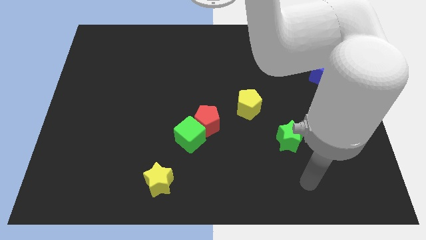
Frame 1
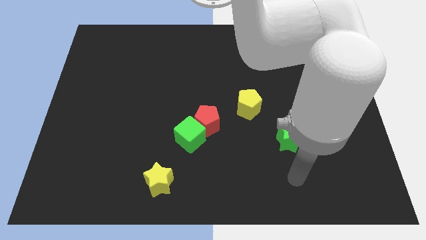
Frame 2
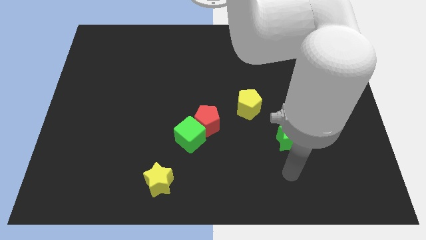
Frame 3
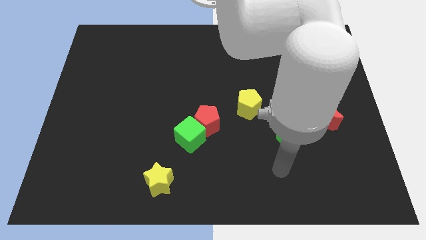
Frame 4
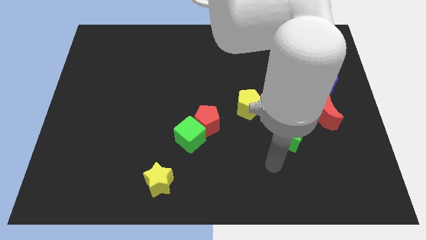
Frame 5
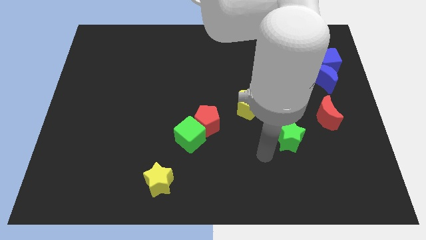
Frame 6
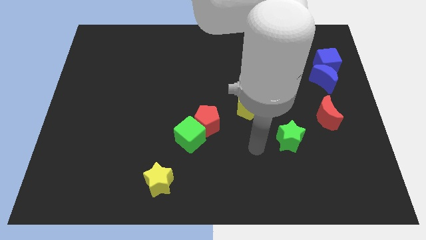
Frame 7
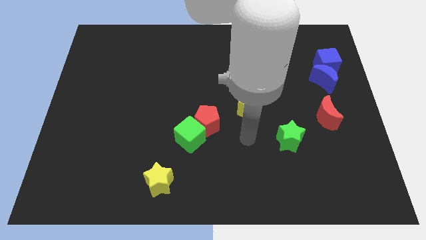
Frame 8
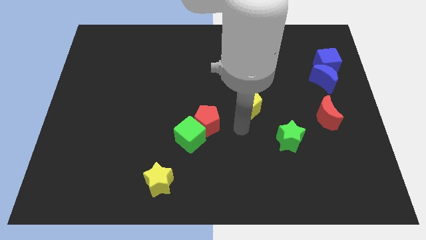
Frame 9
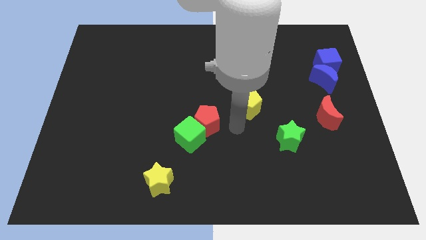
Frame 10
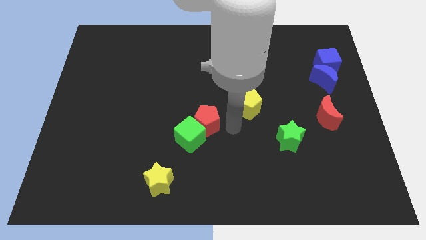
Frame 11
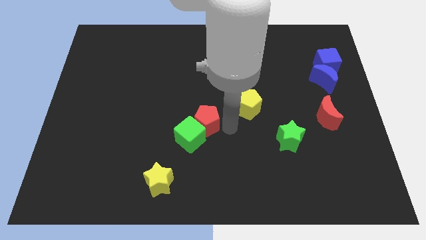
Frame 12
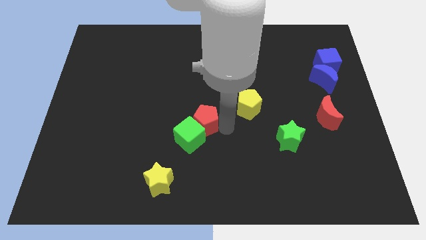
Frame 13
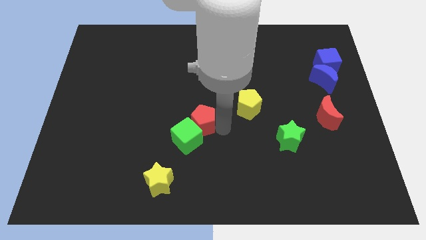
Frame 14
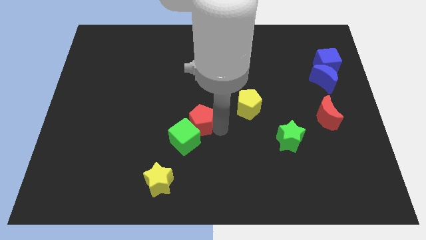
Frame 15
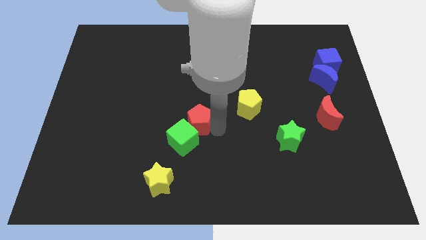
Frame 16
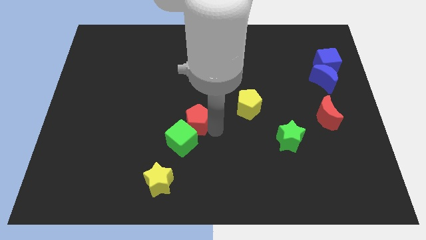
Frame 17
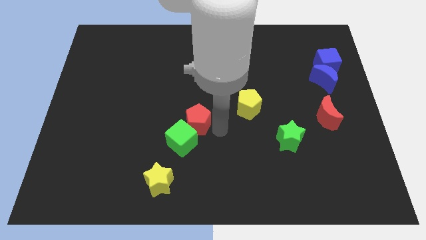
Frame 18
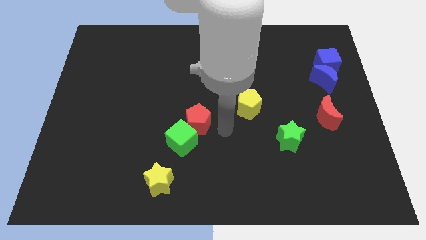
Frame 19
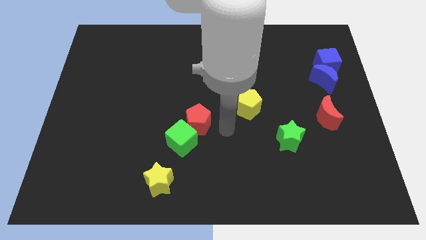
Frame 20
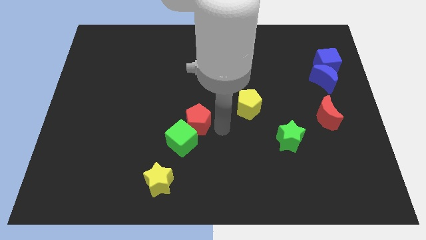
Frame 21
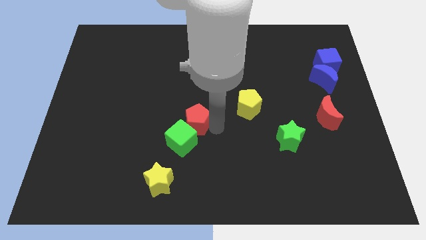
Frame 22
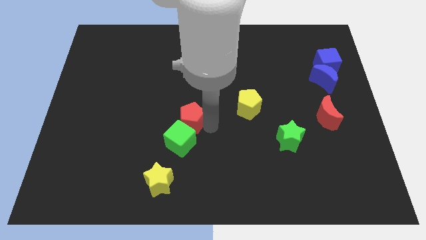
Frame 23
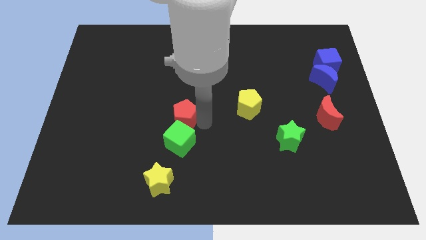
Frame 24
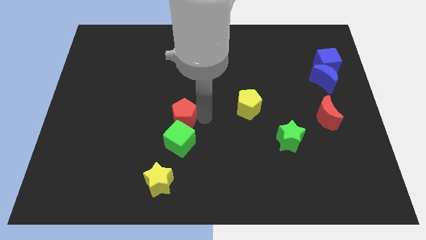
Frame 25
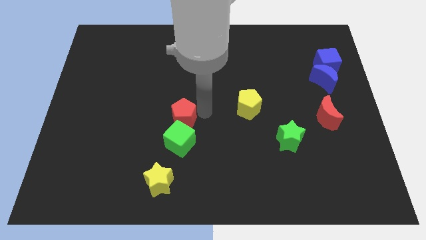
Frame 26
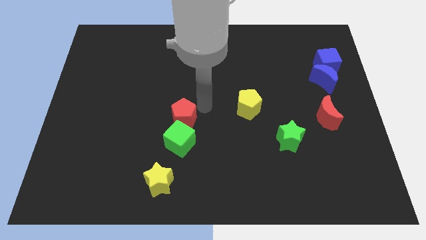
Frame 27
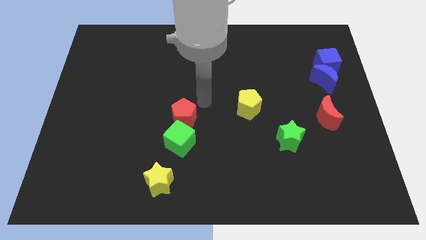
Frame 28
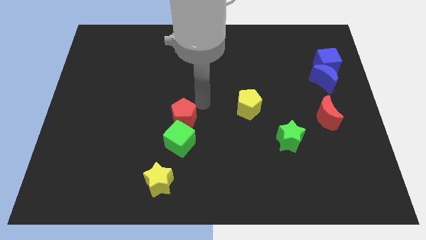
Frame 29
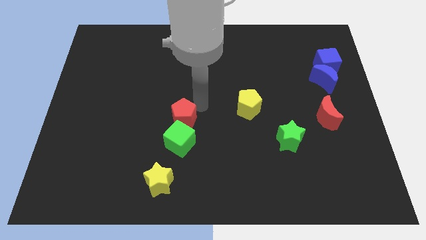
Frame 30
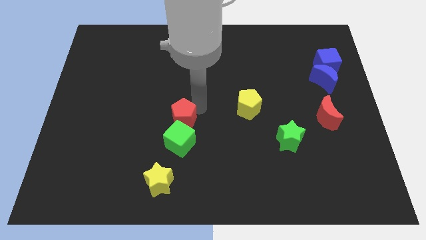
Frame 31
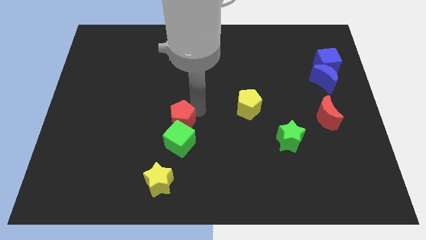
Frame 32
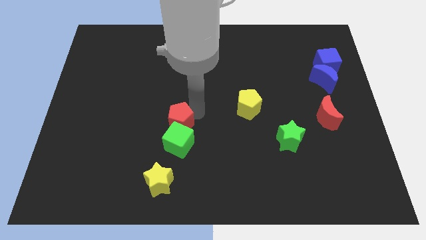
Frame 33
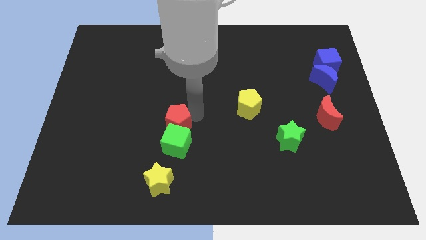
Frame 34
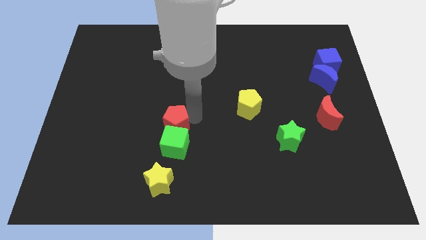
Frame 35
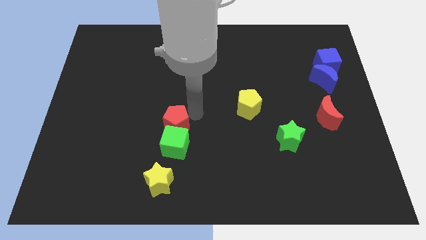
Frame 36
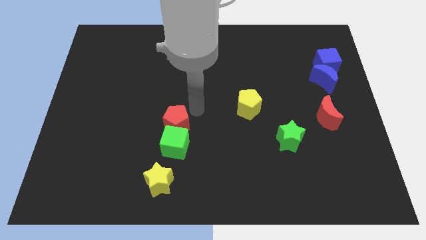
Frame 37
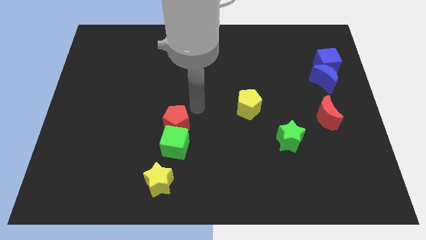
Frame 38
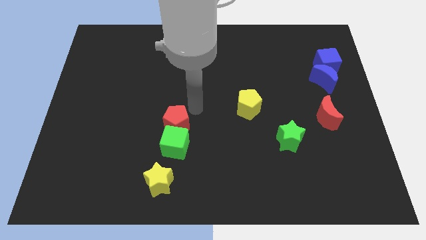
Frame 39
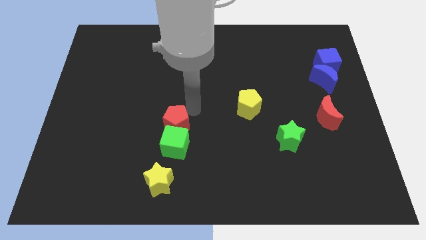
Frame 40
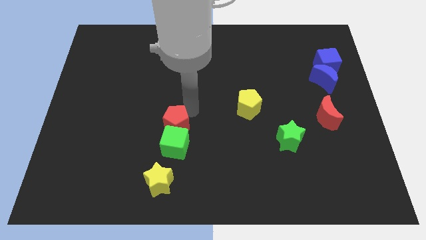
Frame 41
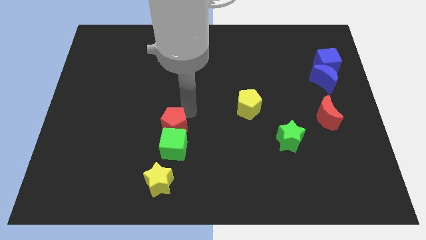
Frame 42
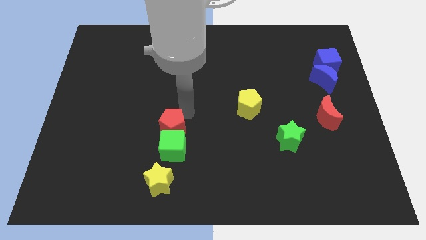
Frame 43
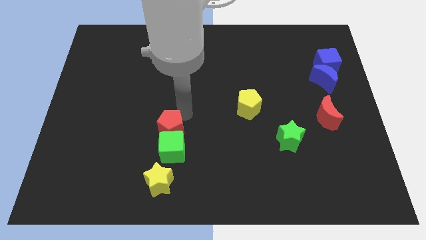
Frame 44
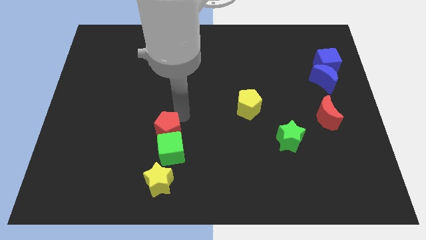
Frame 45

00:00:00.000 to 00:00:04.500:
slightly slide the red pentagon downwards and left diagonally

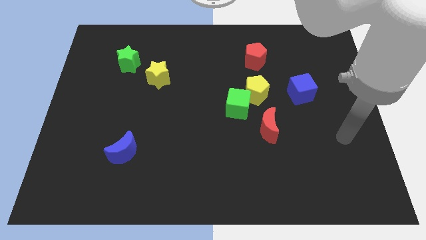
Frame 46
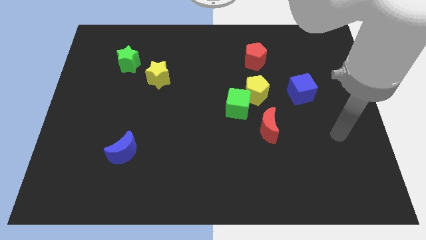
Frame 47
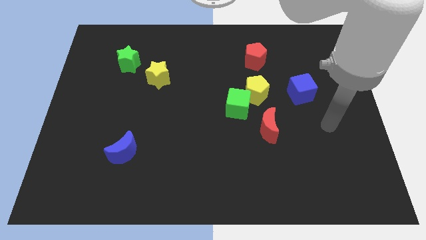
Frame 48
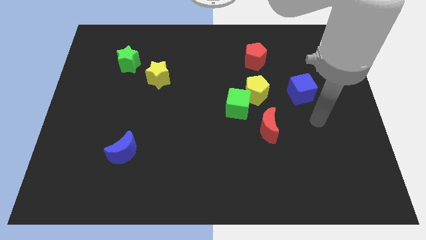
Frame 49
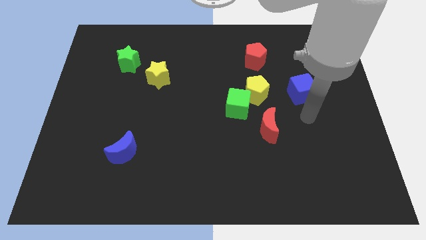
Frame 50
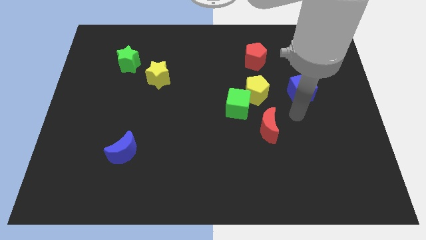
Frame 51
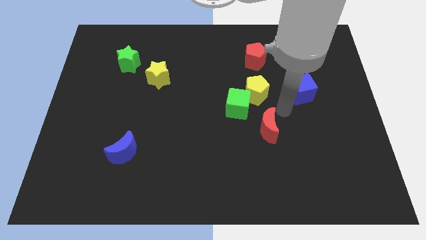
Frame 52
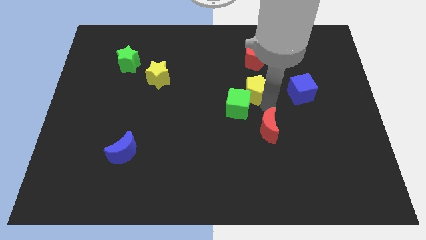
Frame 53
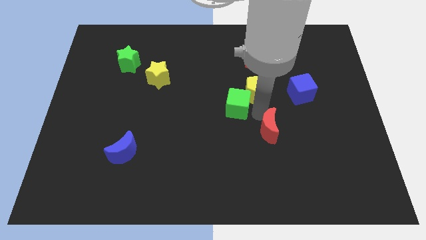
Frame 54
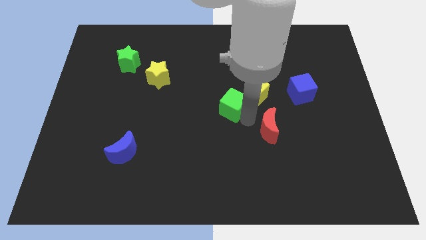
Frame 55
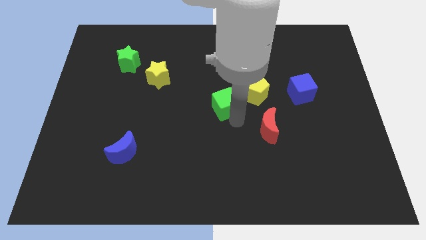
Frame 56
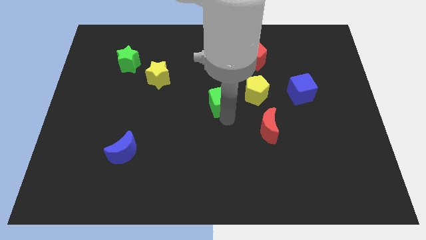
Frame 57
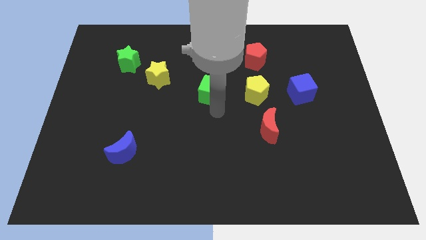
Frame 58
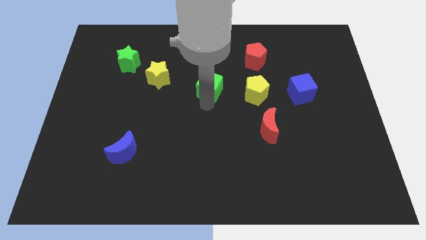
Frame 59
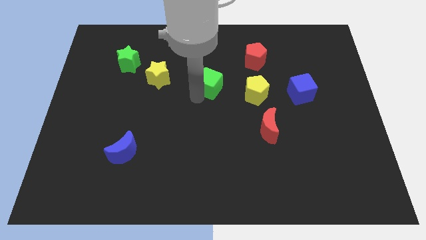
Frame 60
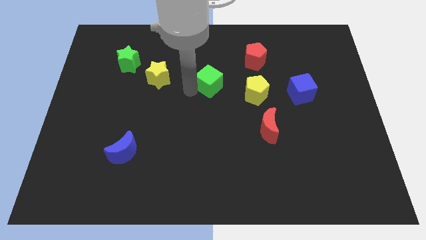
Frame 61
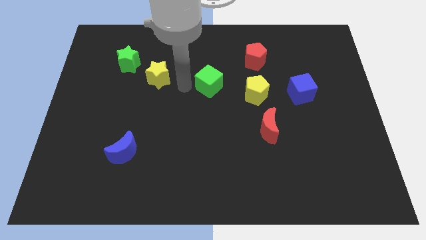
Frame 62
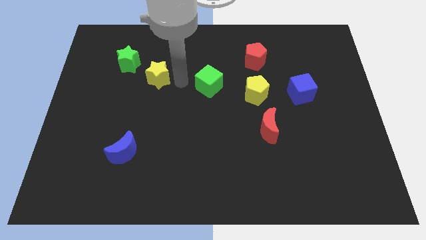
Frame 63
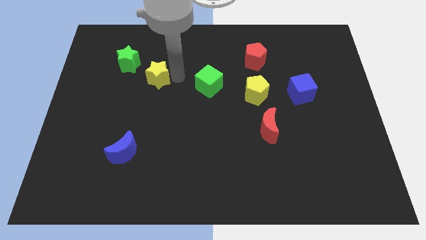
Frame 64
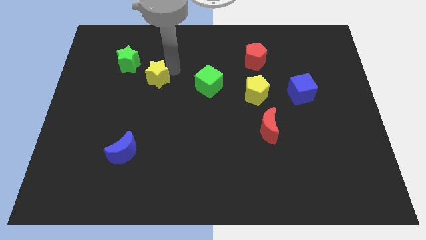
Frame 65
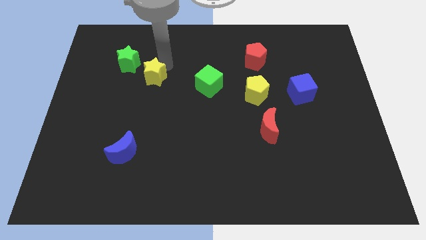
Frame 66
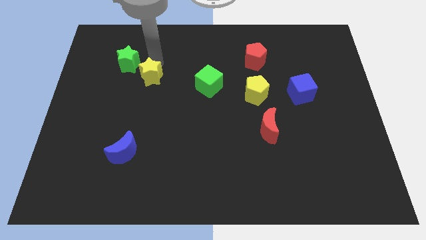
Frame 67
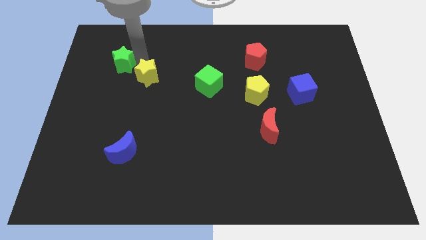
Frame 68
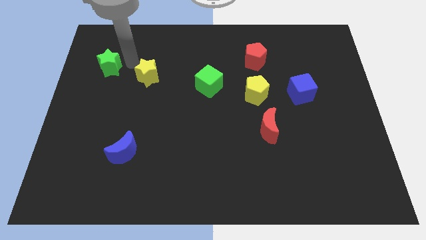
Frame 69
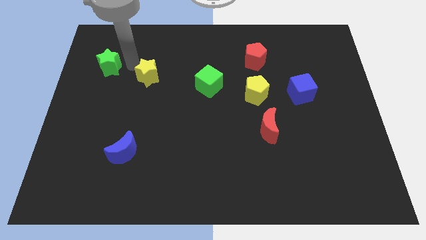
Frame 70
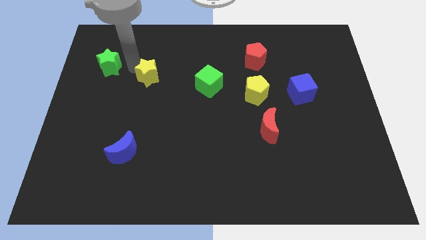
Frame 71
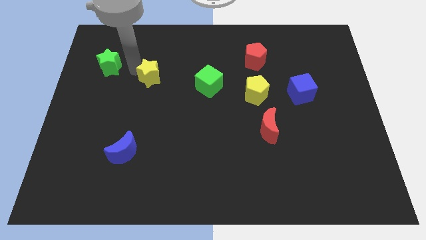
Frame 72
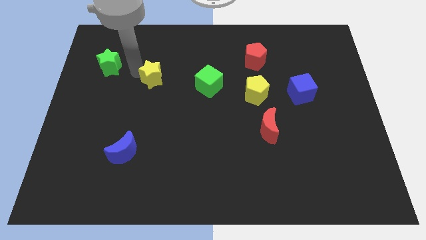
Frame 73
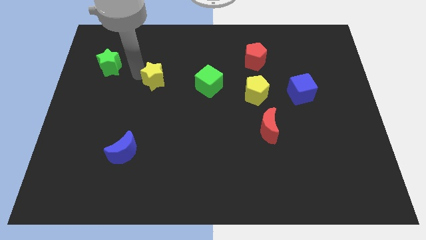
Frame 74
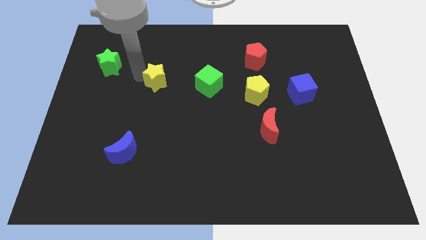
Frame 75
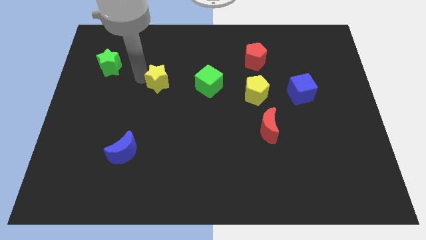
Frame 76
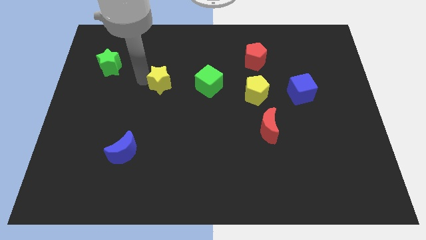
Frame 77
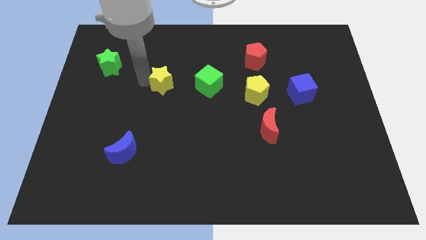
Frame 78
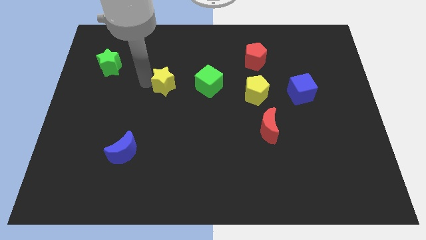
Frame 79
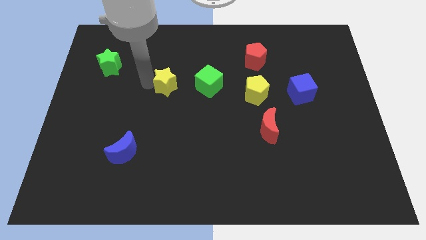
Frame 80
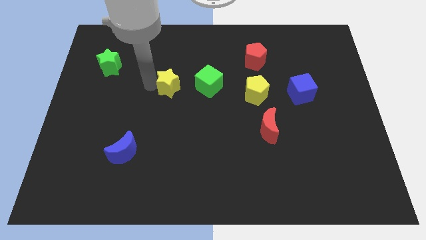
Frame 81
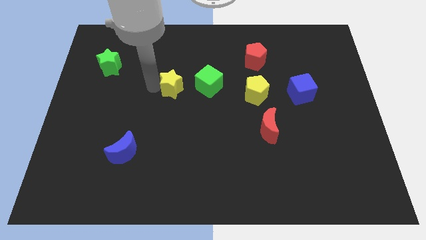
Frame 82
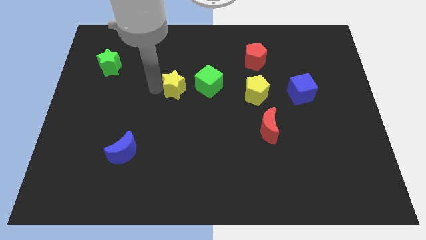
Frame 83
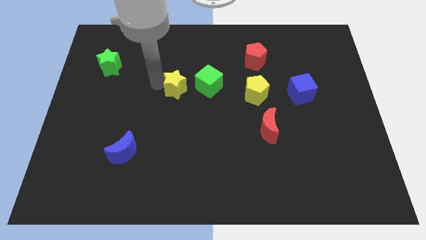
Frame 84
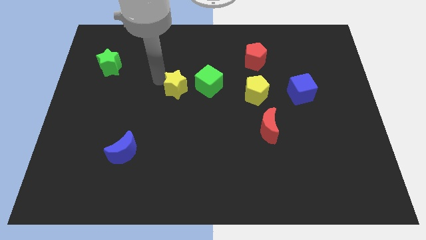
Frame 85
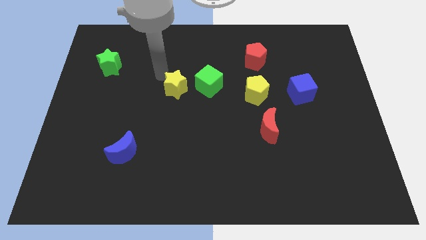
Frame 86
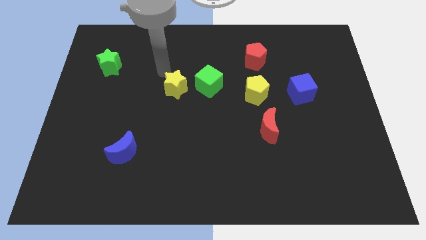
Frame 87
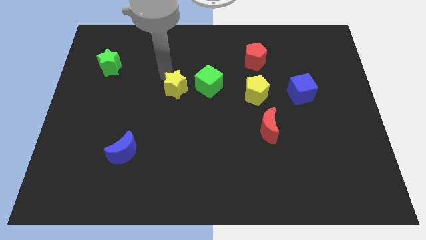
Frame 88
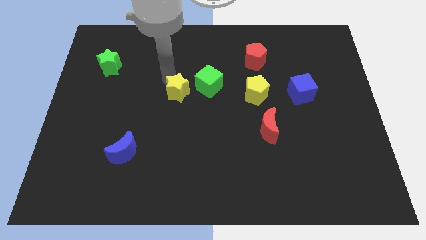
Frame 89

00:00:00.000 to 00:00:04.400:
slide the yellow star down and right a bit
